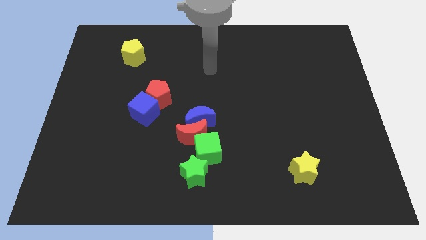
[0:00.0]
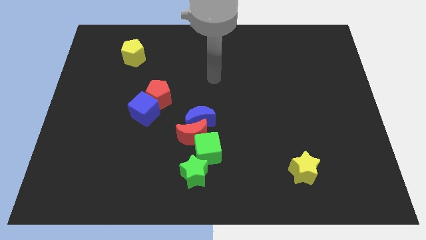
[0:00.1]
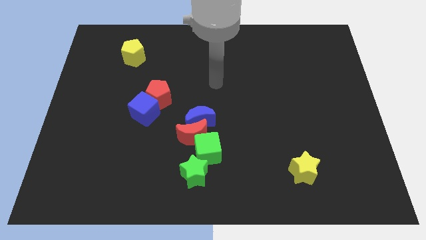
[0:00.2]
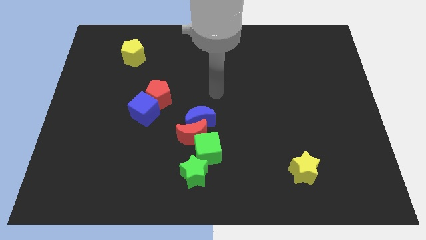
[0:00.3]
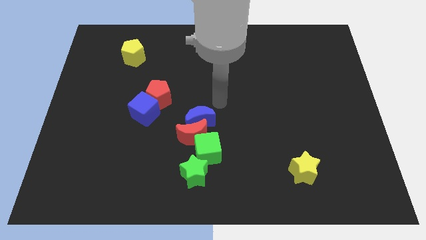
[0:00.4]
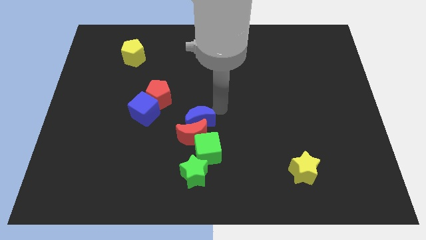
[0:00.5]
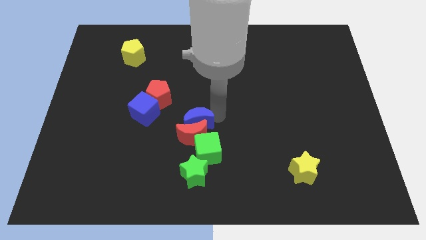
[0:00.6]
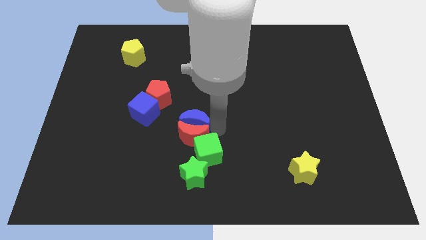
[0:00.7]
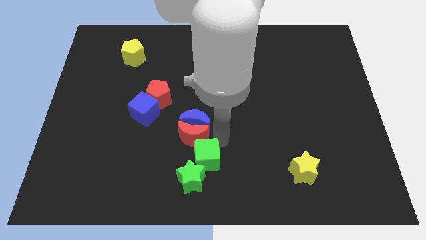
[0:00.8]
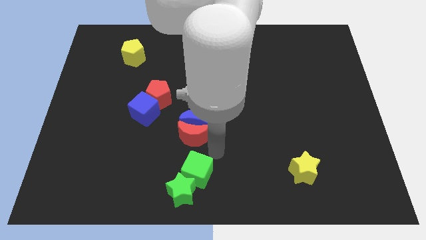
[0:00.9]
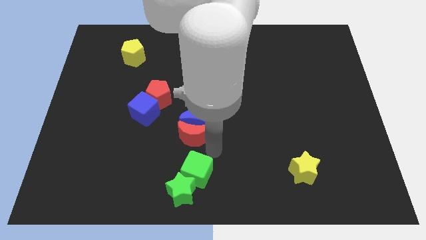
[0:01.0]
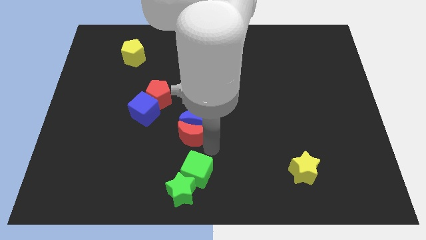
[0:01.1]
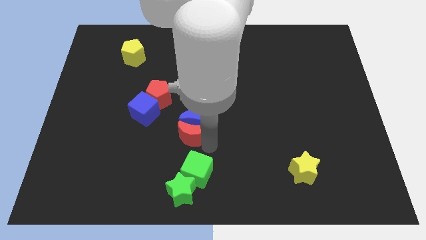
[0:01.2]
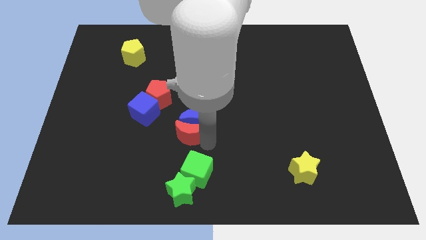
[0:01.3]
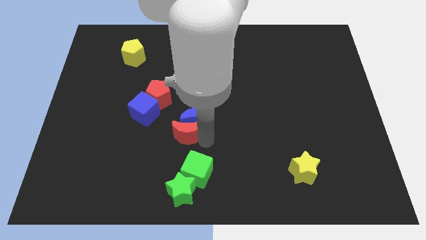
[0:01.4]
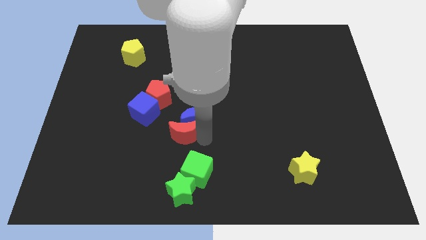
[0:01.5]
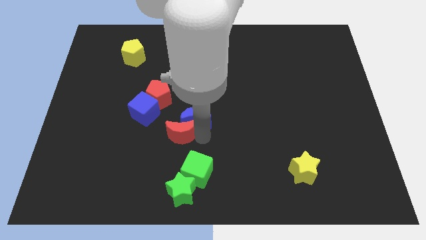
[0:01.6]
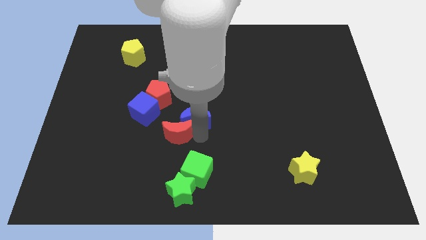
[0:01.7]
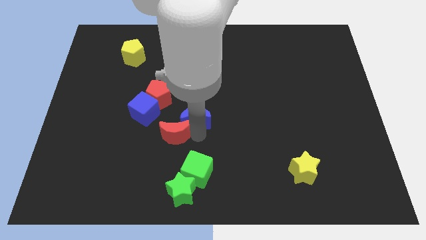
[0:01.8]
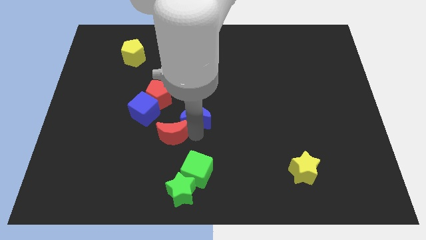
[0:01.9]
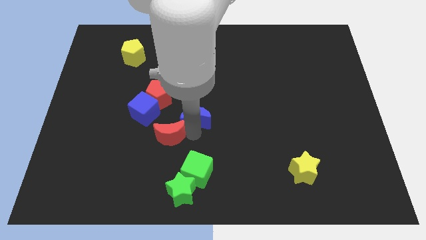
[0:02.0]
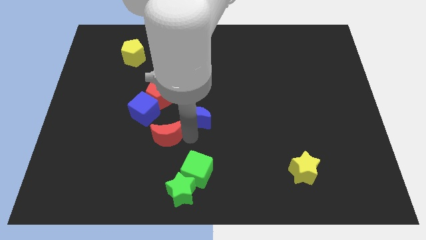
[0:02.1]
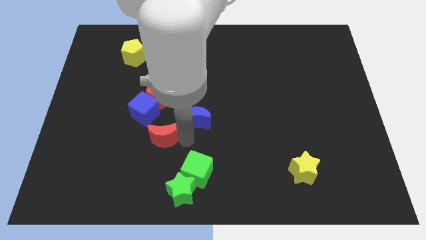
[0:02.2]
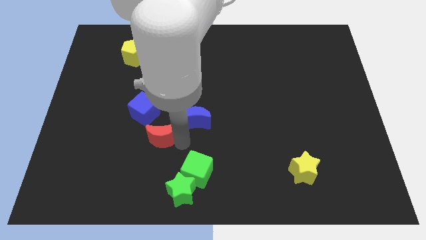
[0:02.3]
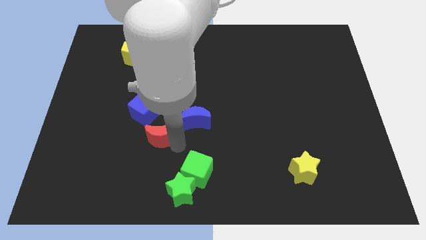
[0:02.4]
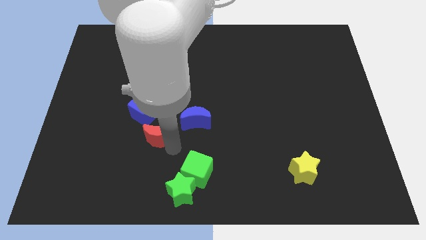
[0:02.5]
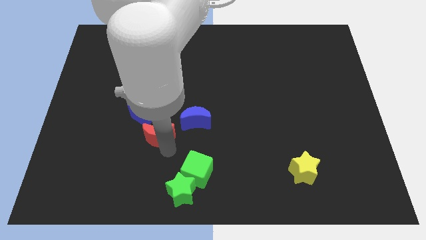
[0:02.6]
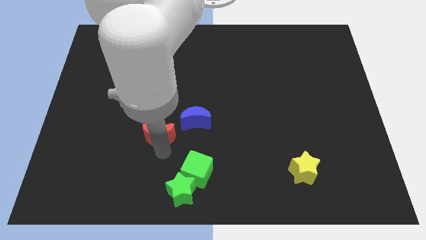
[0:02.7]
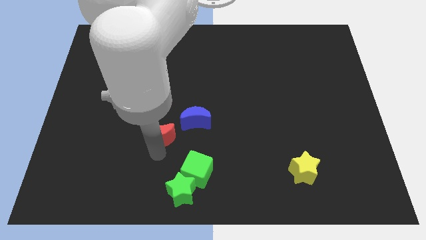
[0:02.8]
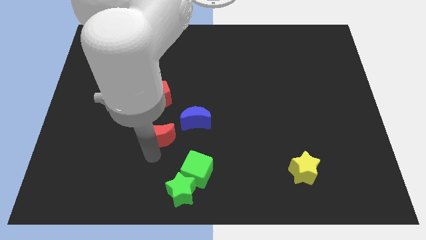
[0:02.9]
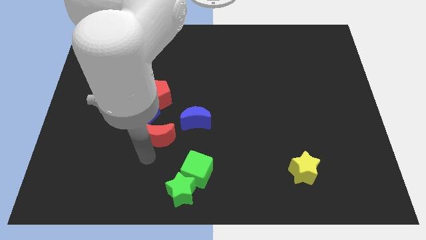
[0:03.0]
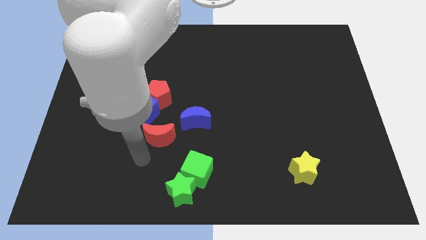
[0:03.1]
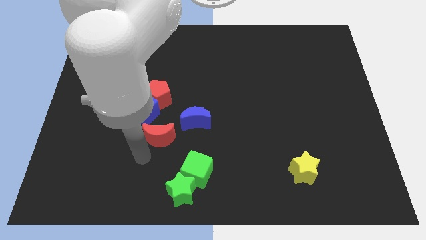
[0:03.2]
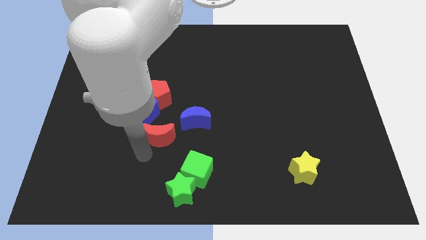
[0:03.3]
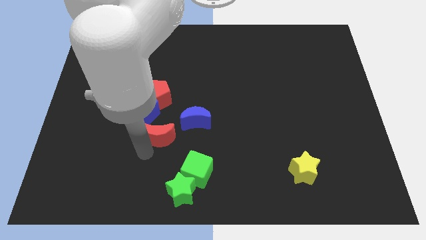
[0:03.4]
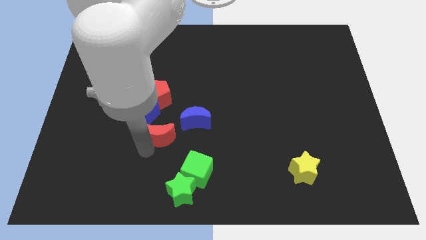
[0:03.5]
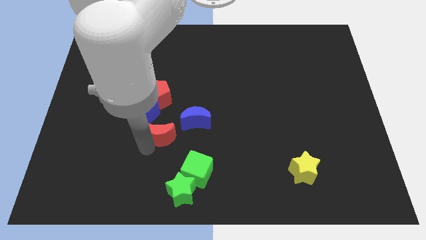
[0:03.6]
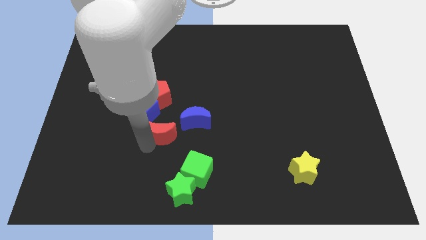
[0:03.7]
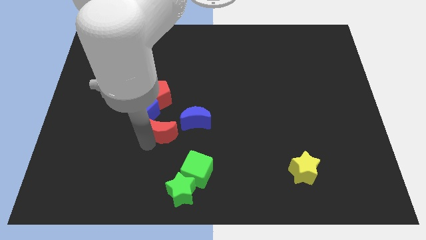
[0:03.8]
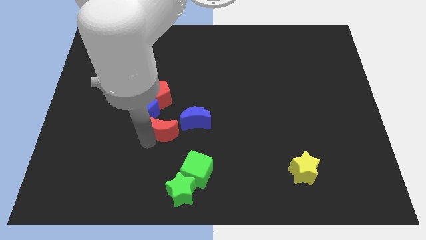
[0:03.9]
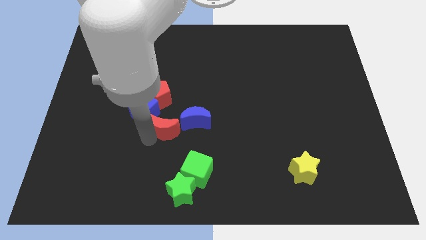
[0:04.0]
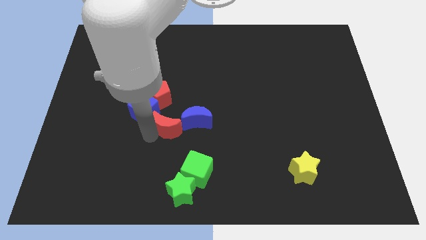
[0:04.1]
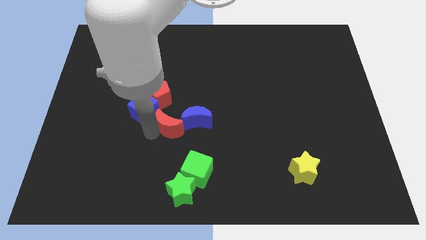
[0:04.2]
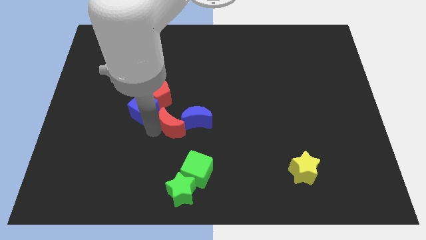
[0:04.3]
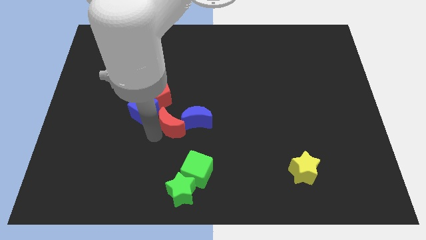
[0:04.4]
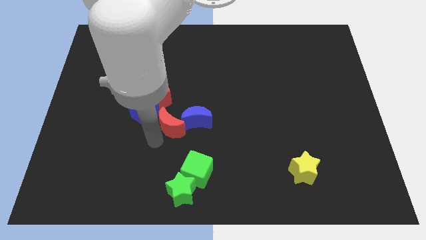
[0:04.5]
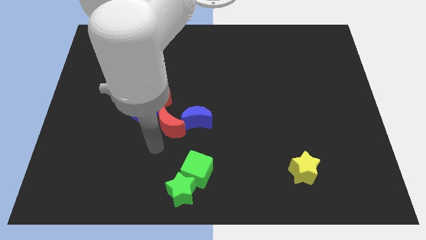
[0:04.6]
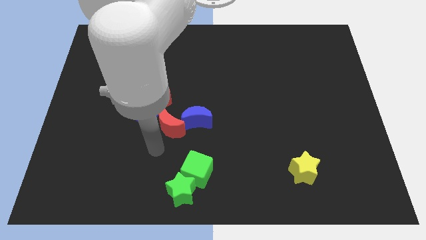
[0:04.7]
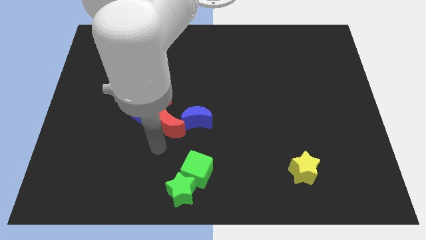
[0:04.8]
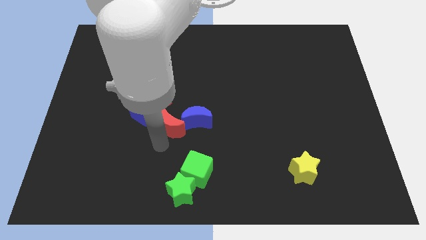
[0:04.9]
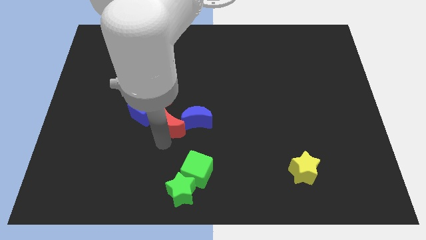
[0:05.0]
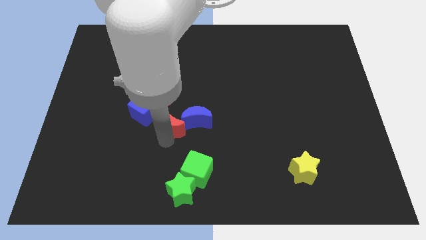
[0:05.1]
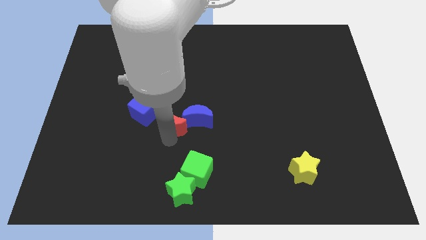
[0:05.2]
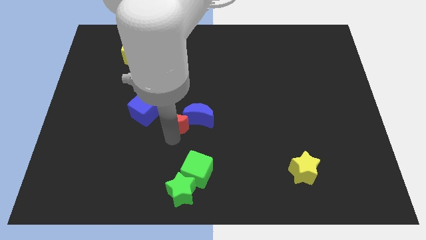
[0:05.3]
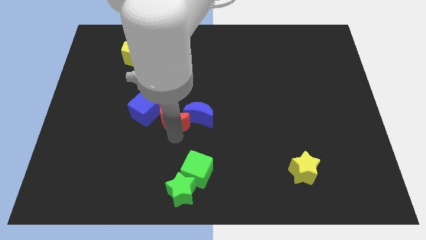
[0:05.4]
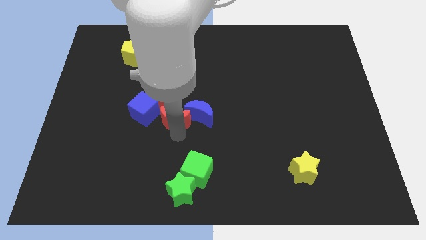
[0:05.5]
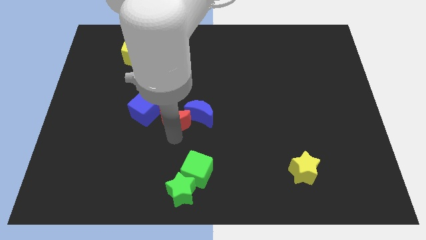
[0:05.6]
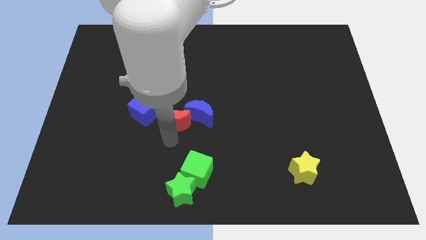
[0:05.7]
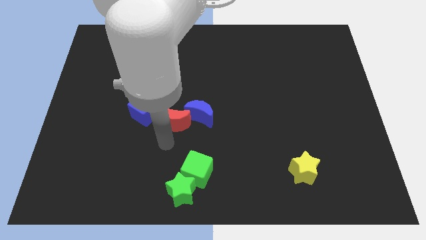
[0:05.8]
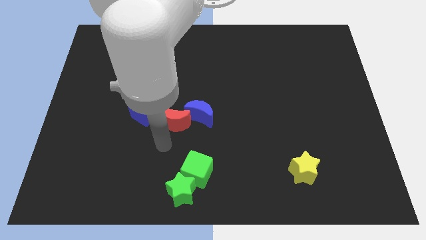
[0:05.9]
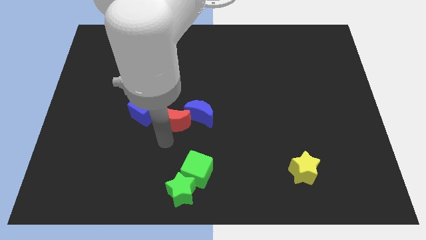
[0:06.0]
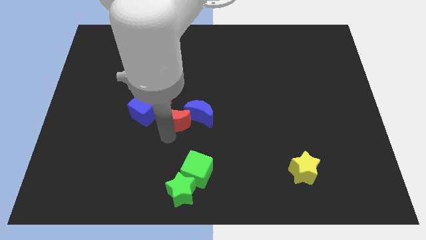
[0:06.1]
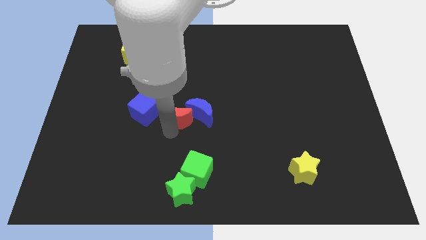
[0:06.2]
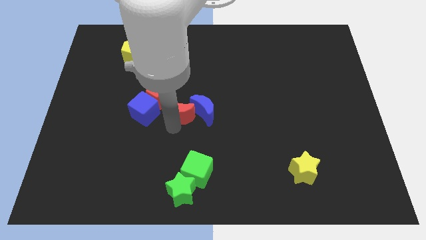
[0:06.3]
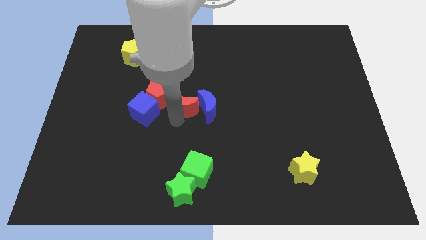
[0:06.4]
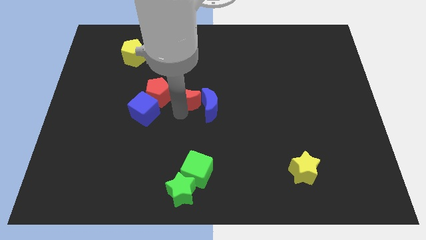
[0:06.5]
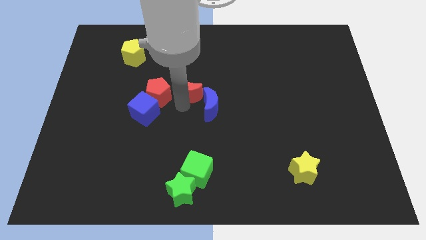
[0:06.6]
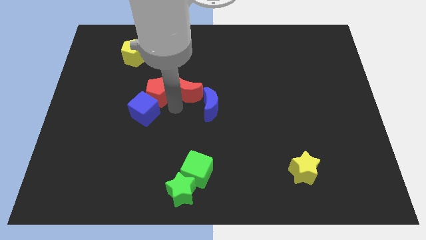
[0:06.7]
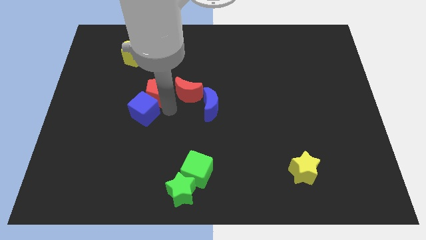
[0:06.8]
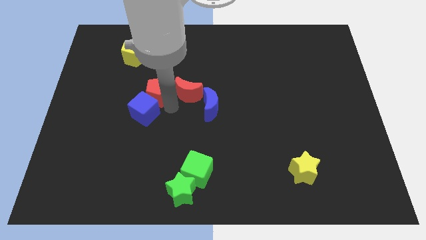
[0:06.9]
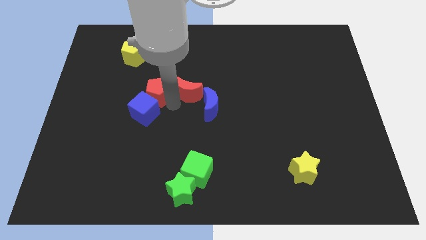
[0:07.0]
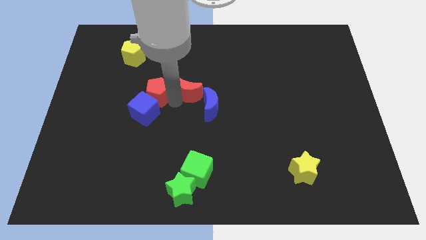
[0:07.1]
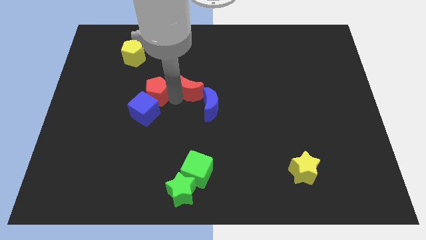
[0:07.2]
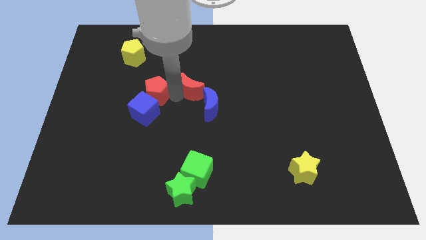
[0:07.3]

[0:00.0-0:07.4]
move the red moon above the blue moon
